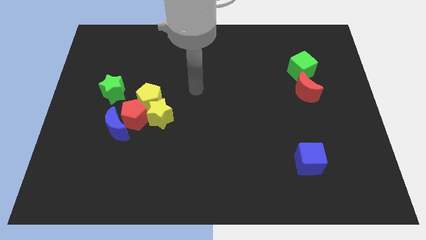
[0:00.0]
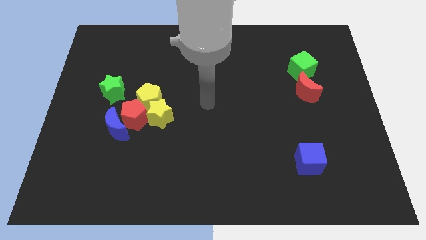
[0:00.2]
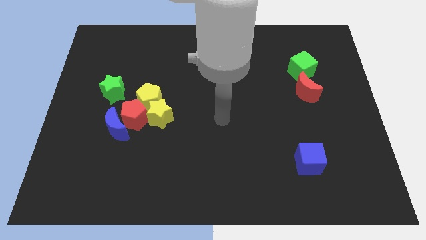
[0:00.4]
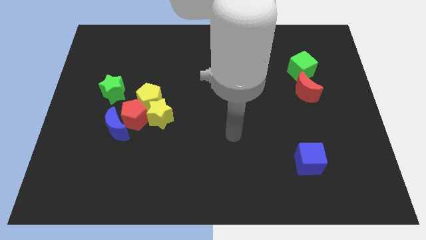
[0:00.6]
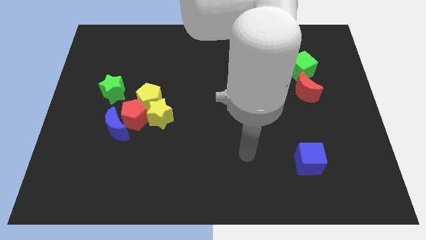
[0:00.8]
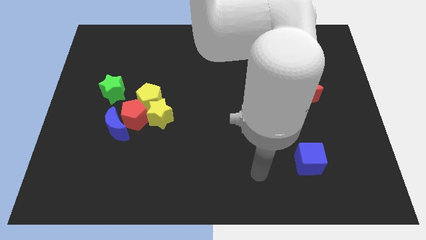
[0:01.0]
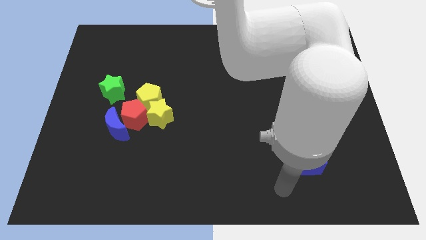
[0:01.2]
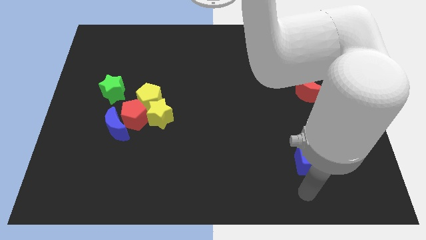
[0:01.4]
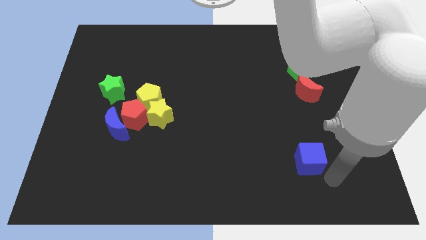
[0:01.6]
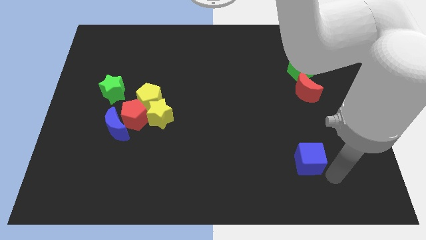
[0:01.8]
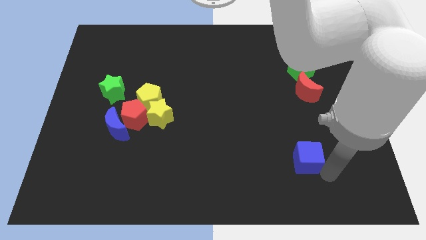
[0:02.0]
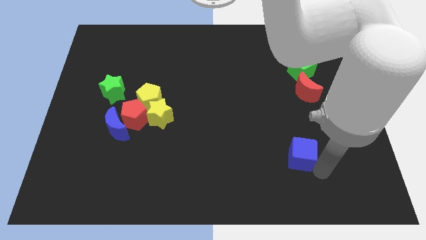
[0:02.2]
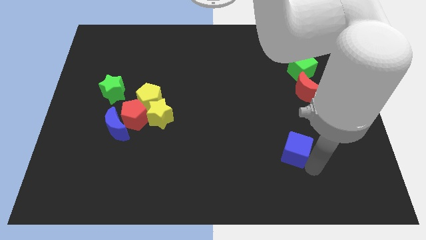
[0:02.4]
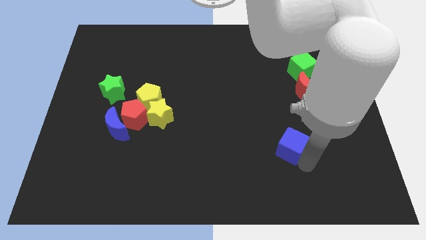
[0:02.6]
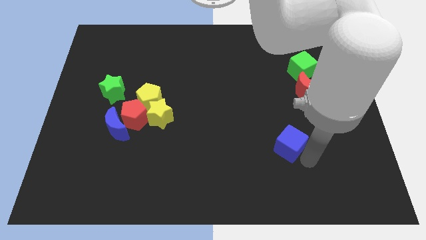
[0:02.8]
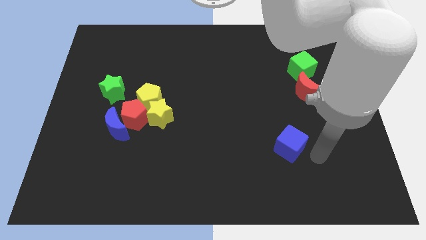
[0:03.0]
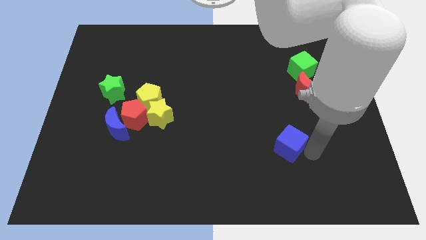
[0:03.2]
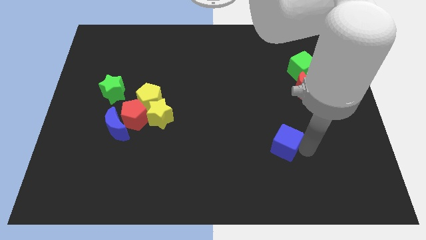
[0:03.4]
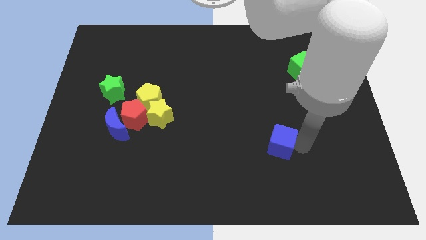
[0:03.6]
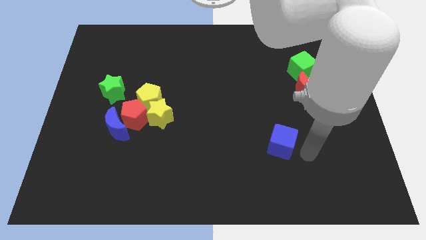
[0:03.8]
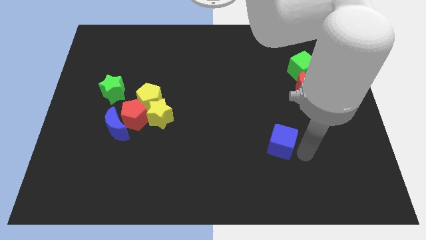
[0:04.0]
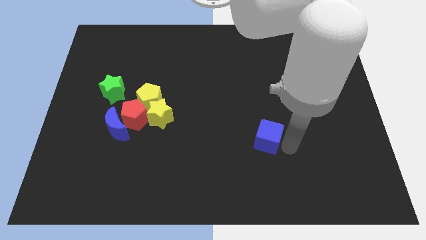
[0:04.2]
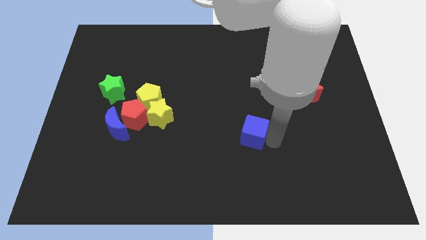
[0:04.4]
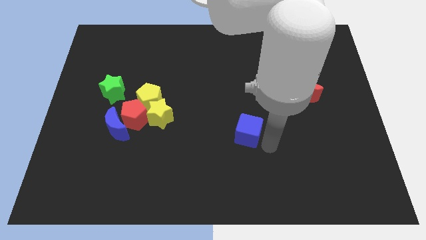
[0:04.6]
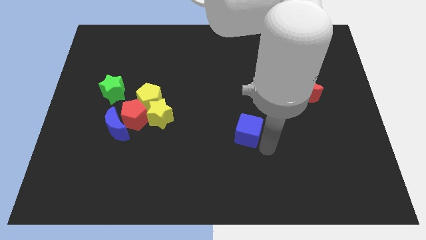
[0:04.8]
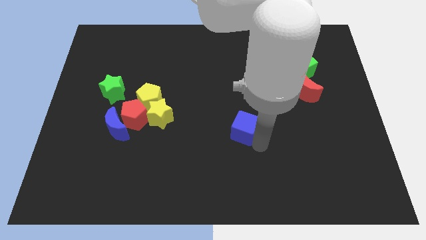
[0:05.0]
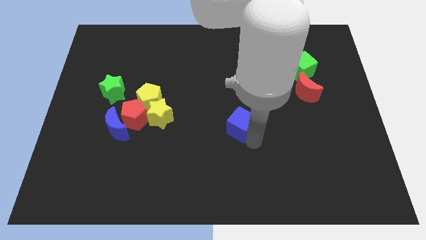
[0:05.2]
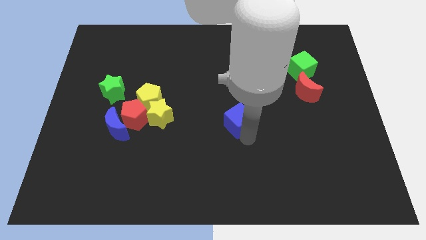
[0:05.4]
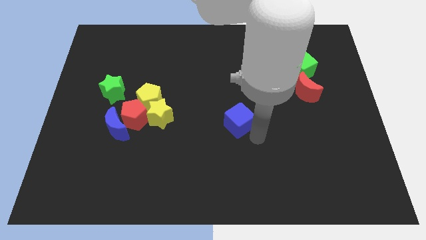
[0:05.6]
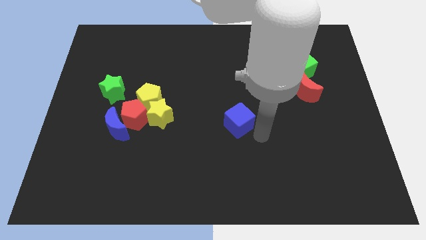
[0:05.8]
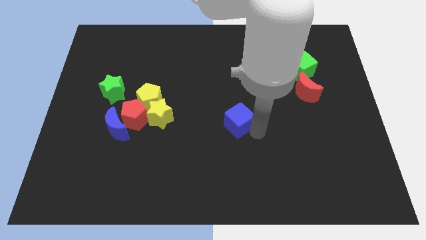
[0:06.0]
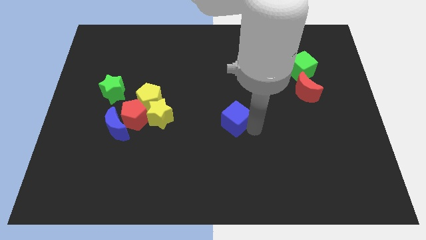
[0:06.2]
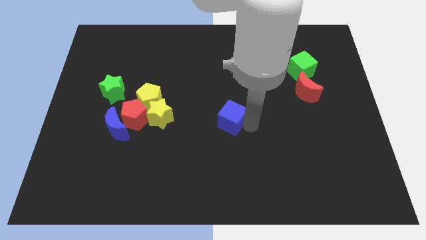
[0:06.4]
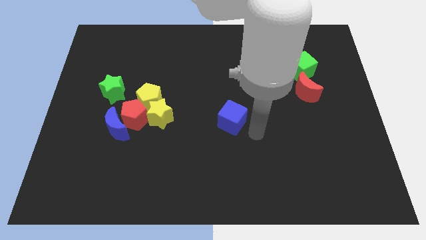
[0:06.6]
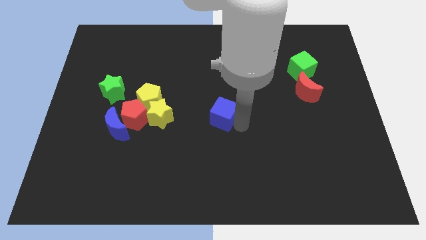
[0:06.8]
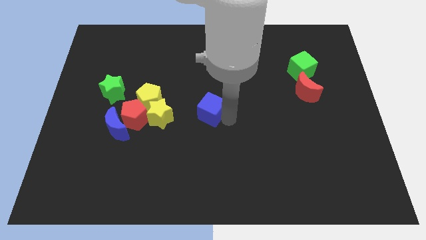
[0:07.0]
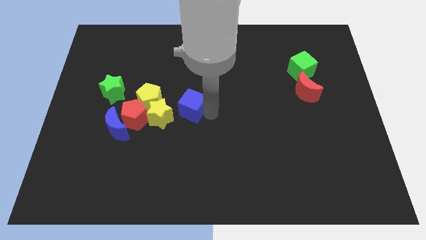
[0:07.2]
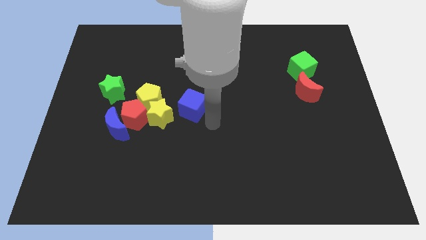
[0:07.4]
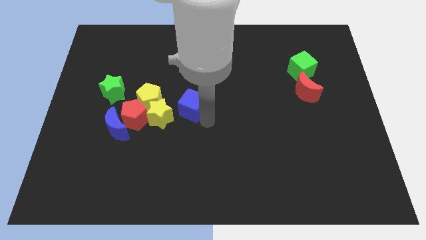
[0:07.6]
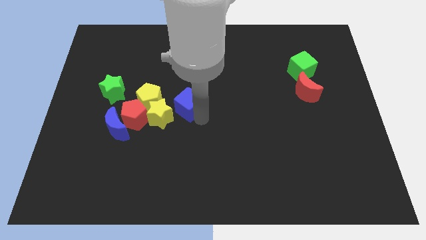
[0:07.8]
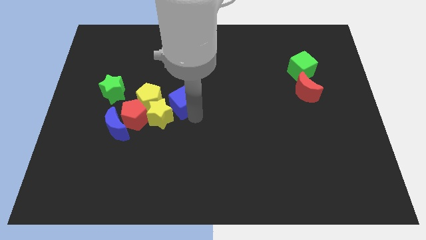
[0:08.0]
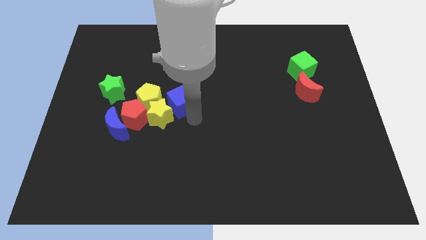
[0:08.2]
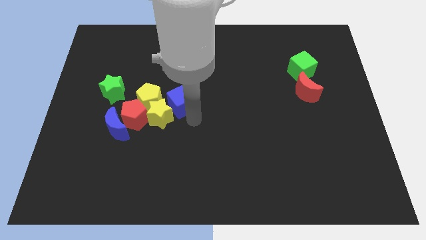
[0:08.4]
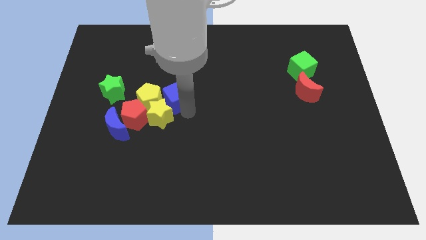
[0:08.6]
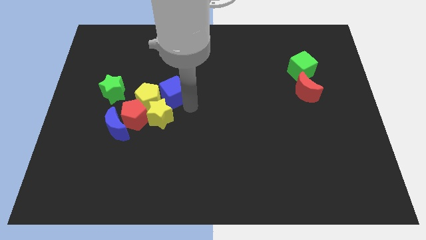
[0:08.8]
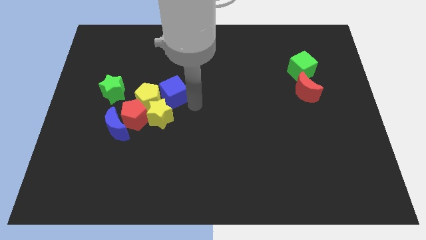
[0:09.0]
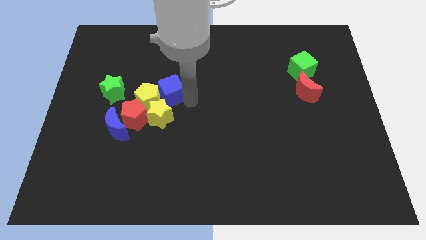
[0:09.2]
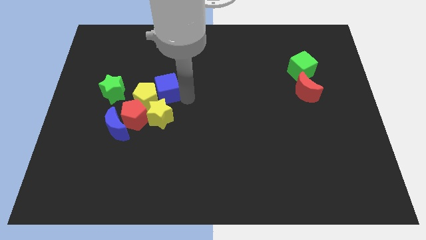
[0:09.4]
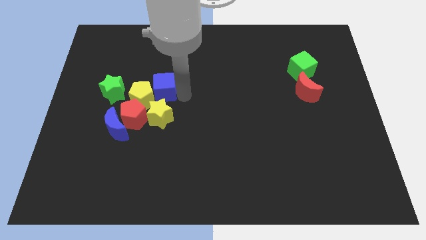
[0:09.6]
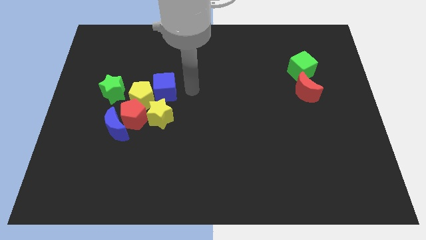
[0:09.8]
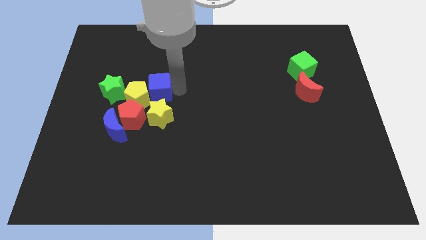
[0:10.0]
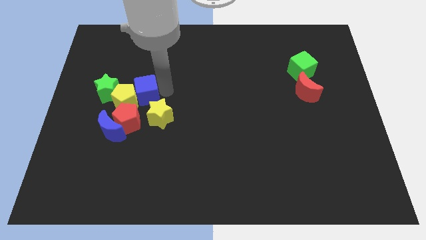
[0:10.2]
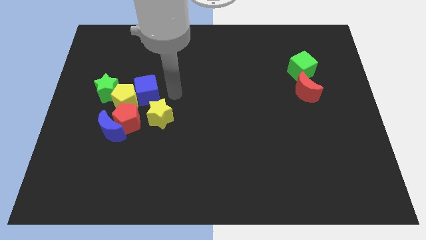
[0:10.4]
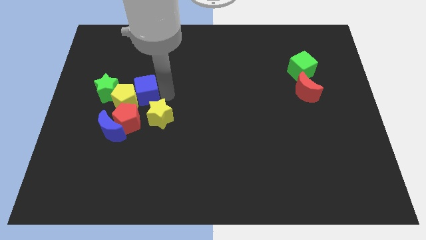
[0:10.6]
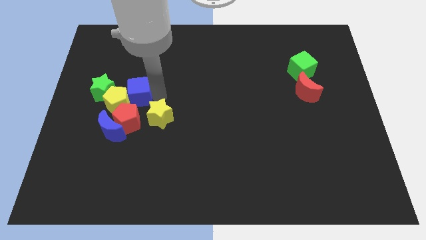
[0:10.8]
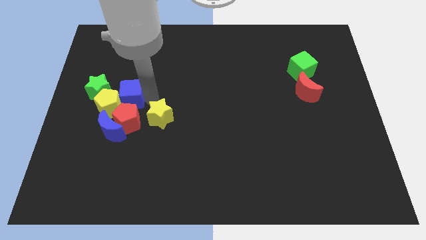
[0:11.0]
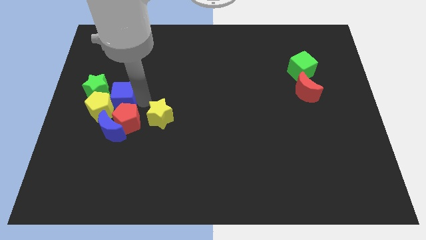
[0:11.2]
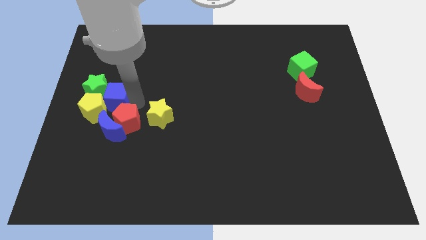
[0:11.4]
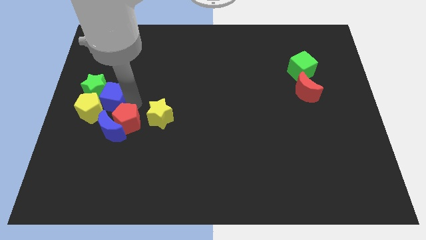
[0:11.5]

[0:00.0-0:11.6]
put the blue cube next to the green star

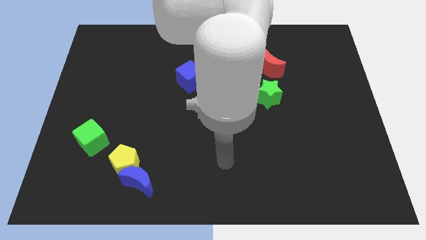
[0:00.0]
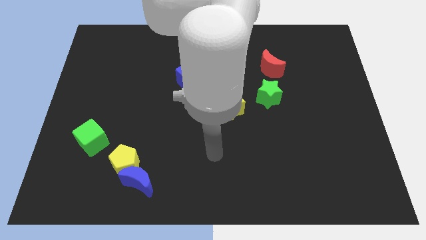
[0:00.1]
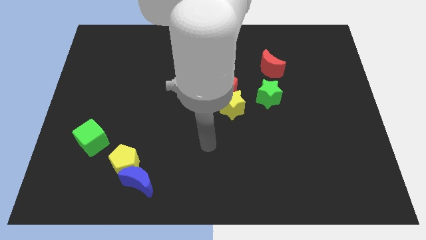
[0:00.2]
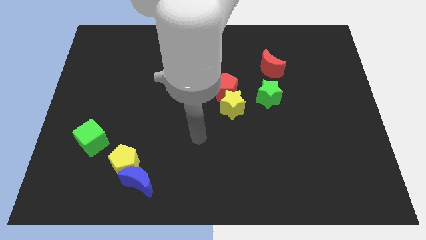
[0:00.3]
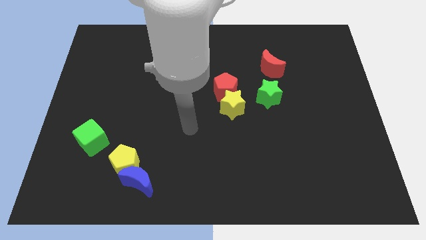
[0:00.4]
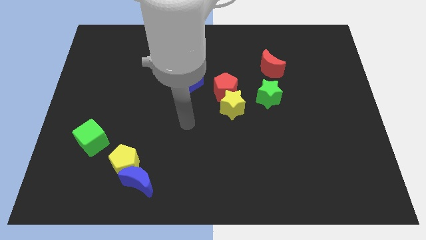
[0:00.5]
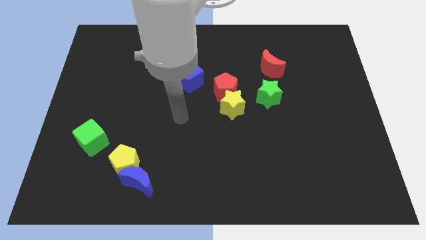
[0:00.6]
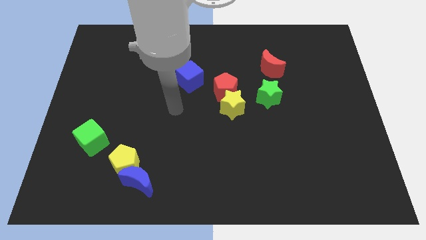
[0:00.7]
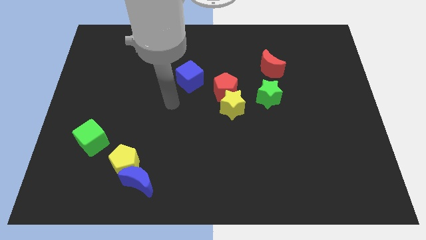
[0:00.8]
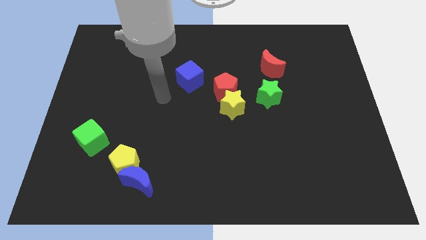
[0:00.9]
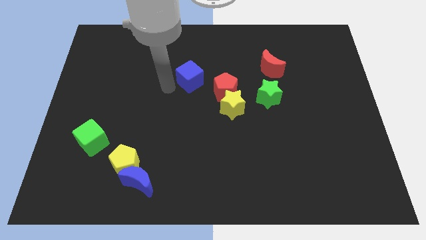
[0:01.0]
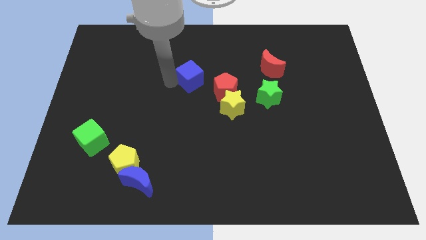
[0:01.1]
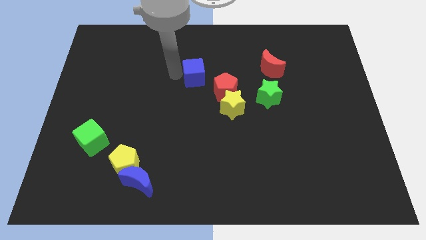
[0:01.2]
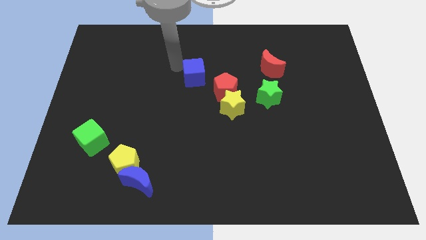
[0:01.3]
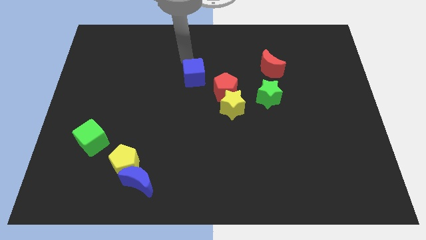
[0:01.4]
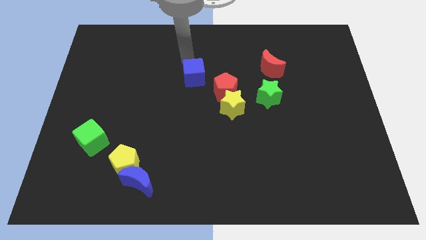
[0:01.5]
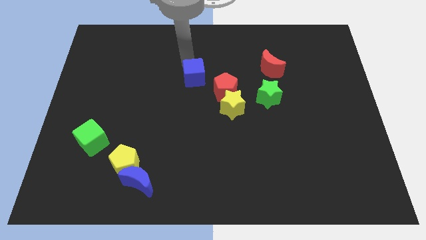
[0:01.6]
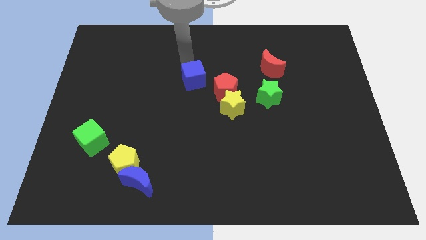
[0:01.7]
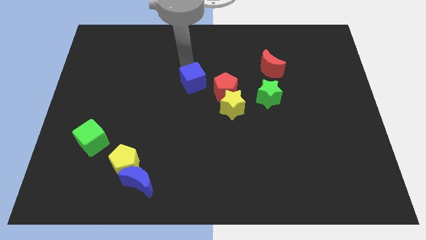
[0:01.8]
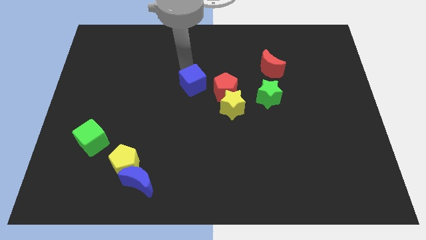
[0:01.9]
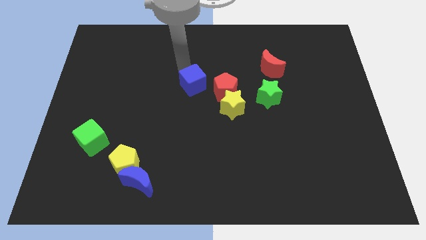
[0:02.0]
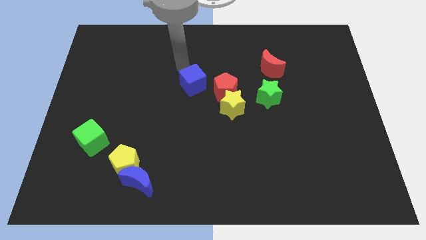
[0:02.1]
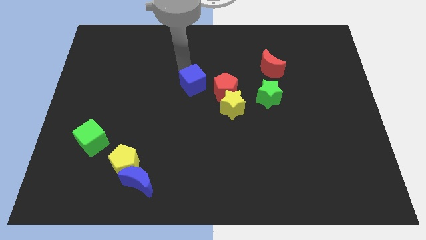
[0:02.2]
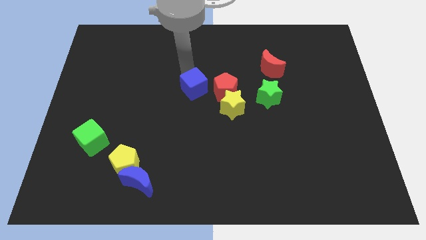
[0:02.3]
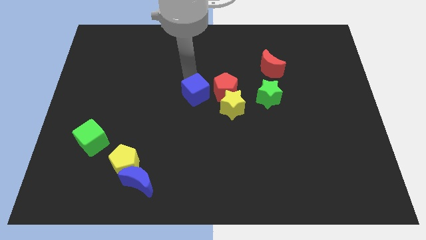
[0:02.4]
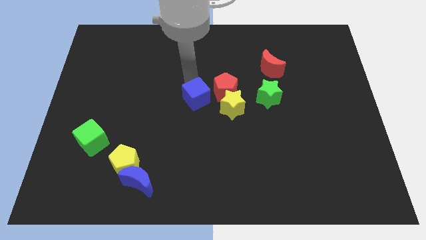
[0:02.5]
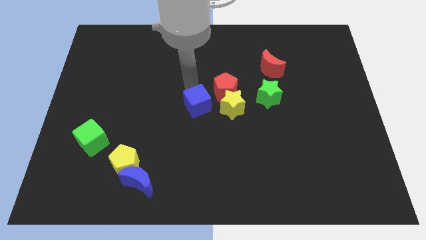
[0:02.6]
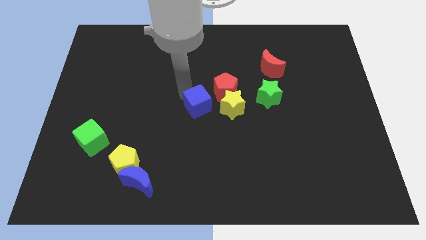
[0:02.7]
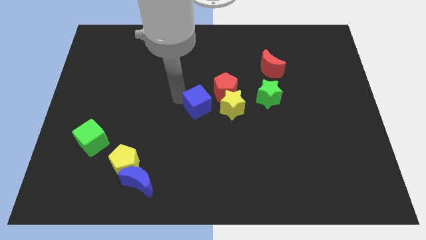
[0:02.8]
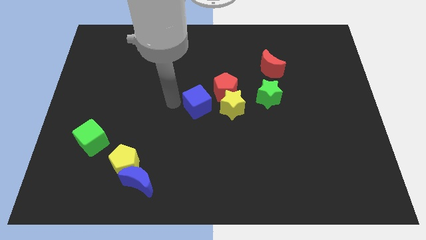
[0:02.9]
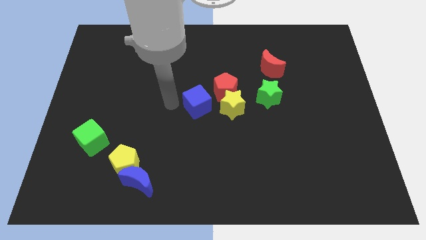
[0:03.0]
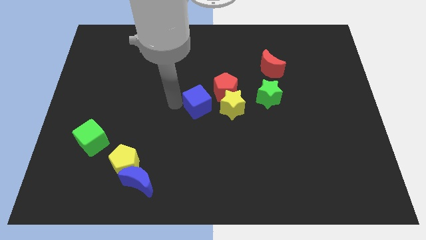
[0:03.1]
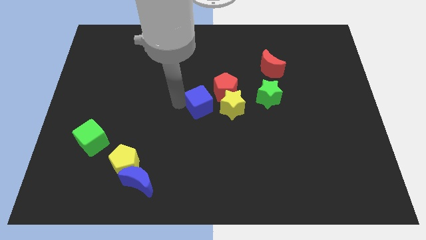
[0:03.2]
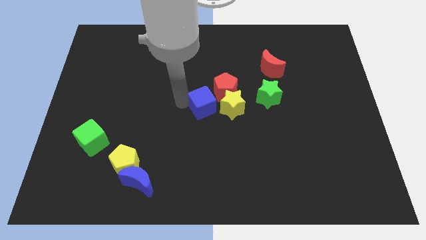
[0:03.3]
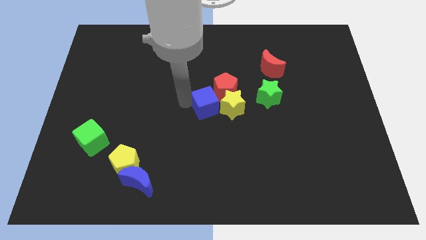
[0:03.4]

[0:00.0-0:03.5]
move the blue cube next to the yellow star
